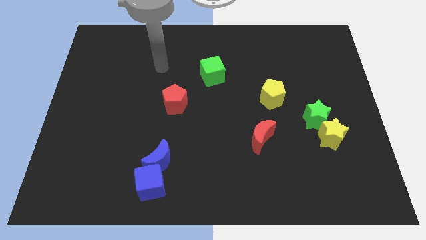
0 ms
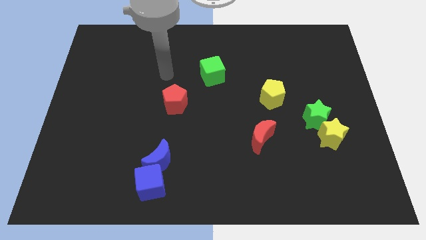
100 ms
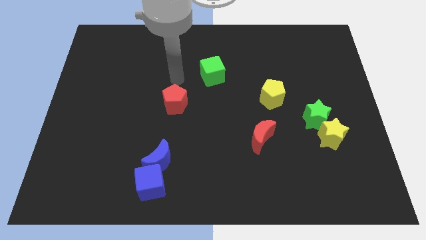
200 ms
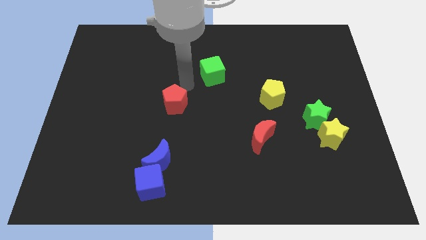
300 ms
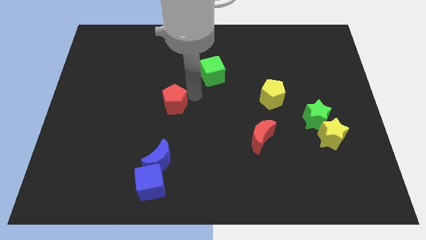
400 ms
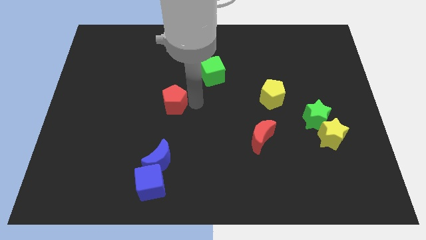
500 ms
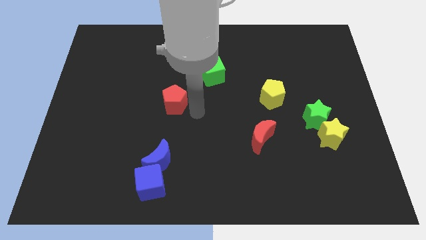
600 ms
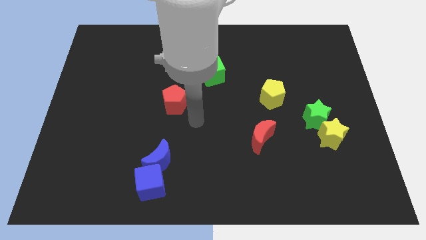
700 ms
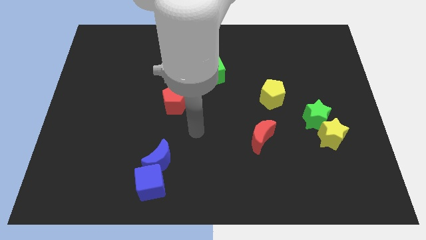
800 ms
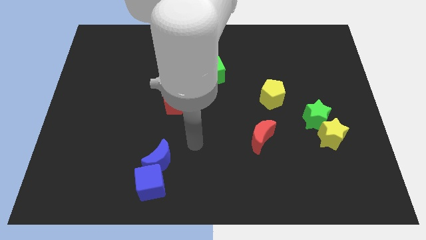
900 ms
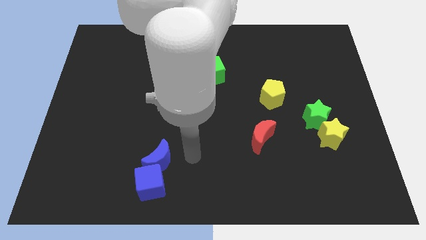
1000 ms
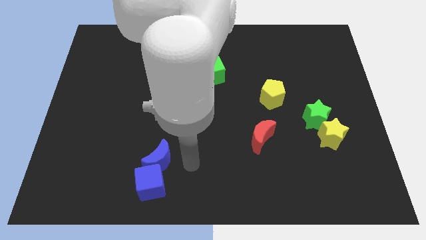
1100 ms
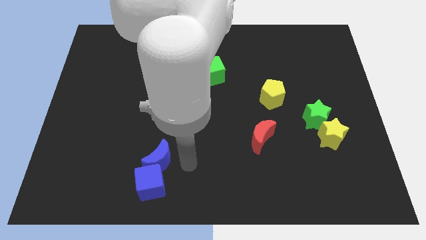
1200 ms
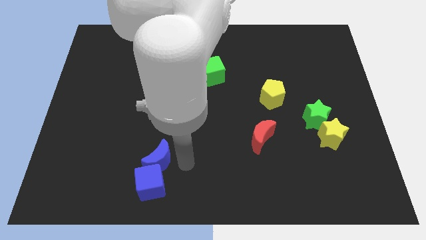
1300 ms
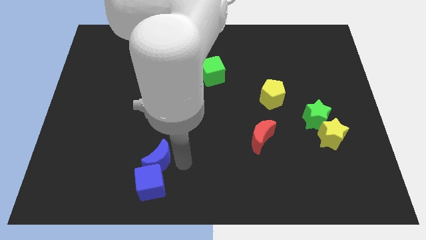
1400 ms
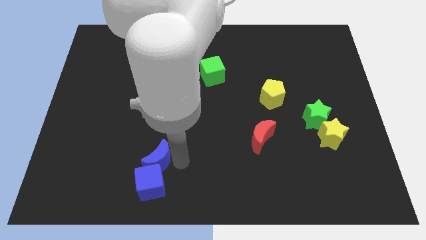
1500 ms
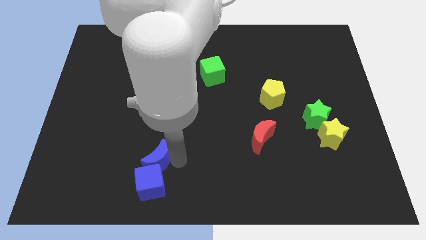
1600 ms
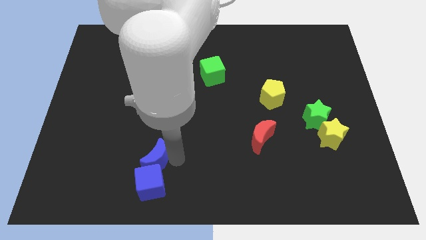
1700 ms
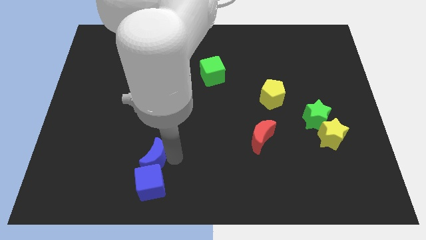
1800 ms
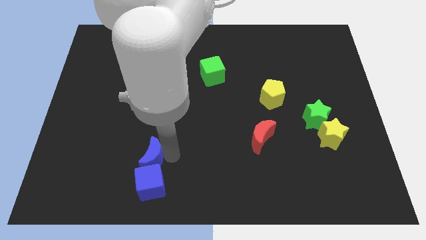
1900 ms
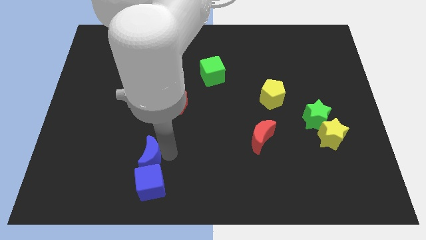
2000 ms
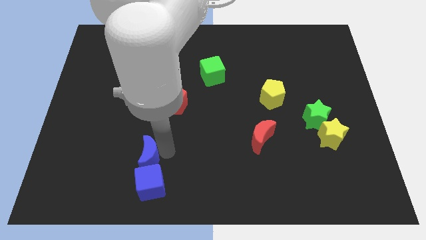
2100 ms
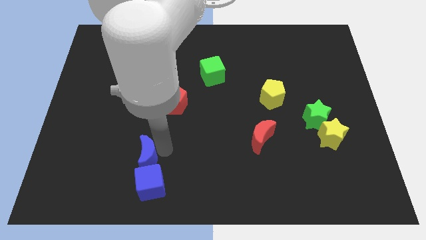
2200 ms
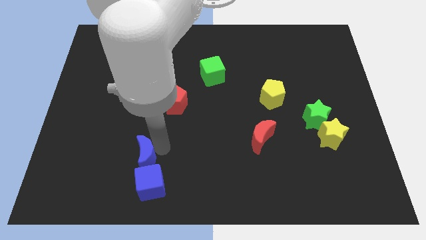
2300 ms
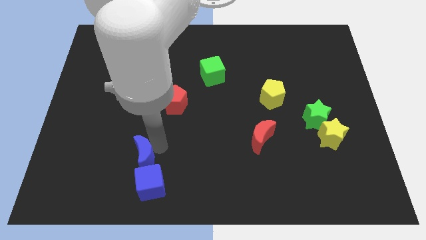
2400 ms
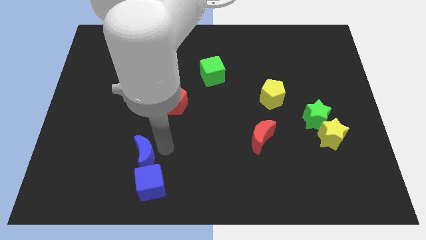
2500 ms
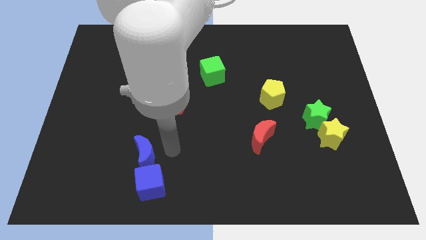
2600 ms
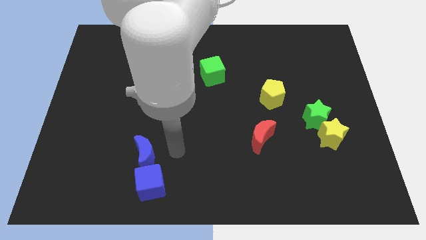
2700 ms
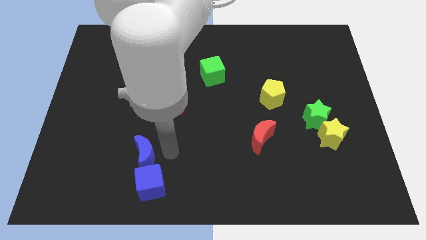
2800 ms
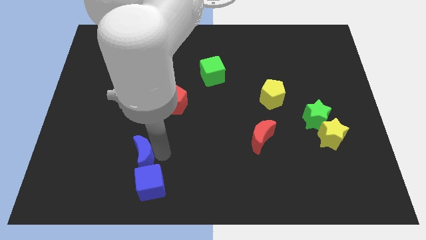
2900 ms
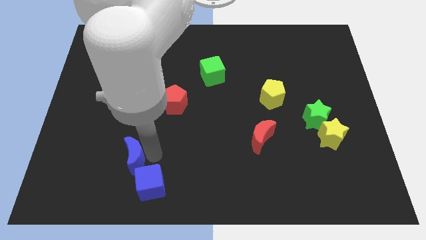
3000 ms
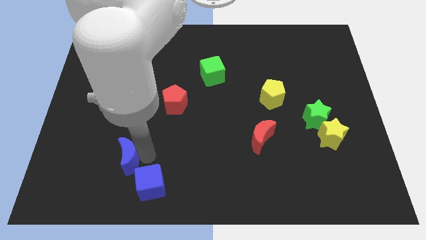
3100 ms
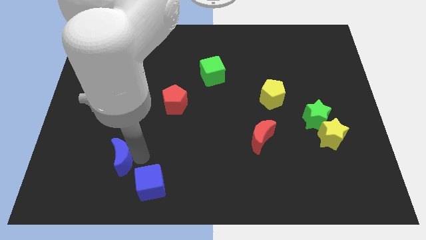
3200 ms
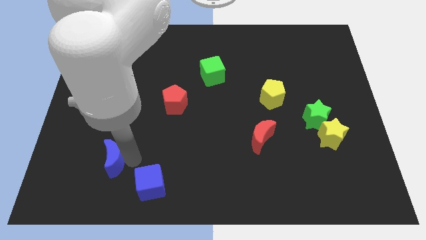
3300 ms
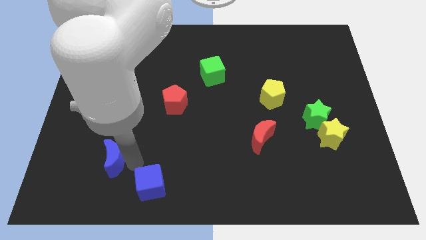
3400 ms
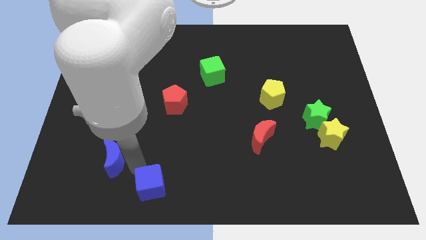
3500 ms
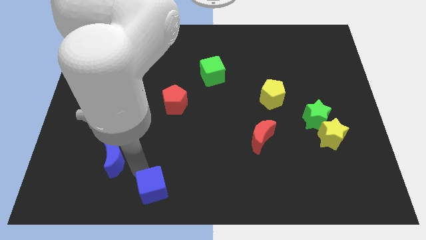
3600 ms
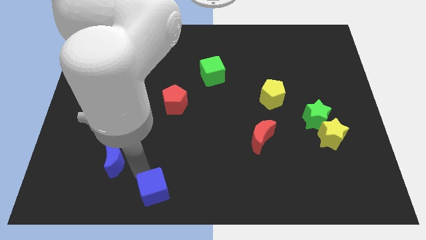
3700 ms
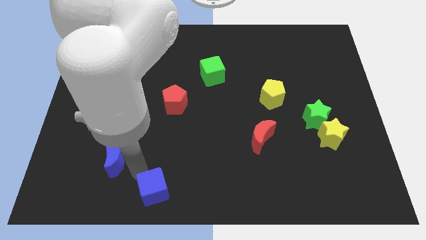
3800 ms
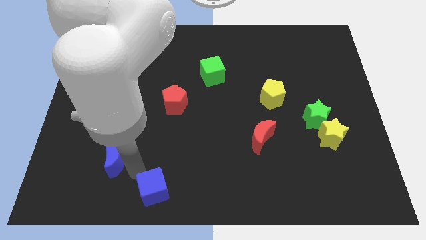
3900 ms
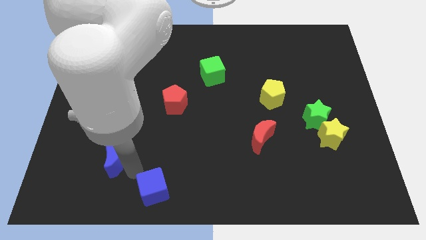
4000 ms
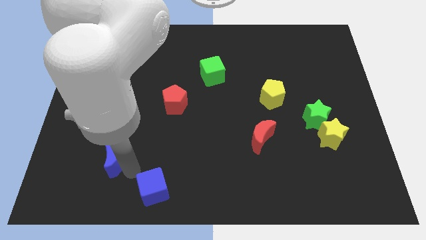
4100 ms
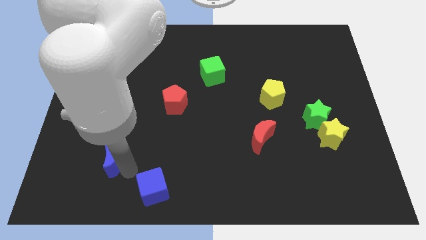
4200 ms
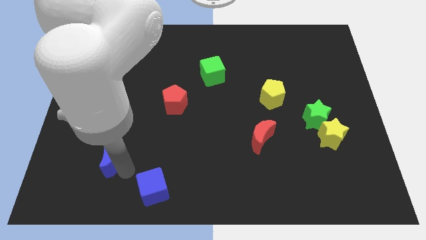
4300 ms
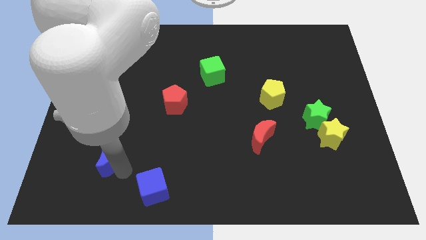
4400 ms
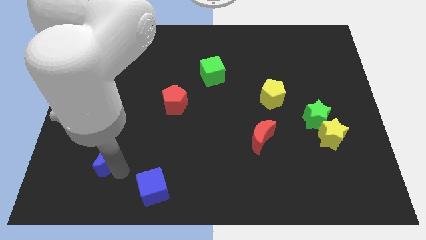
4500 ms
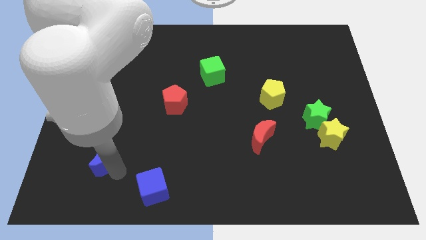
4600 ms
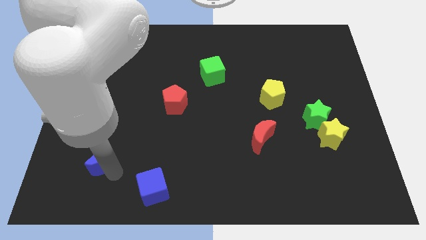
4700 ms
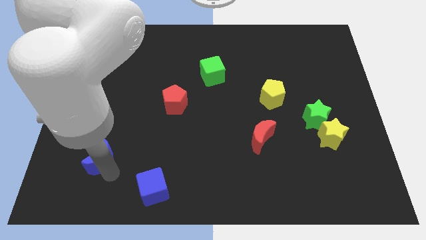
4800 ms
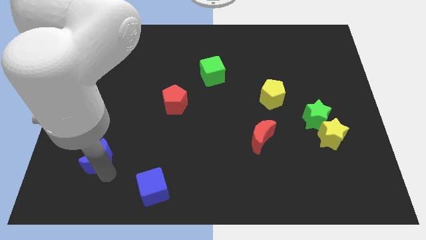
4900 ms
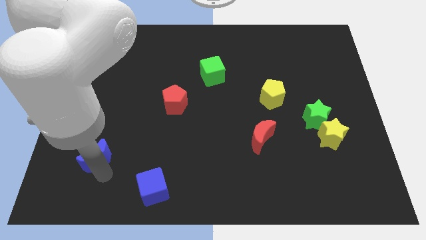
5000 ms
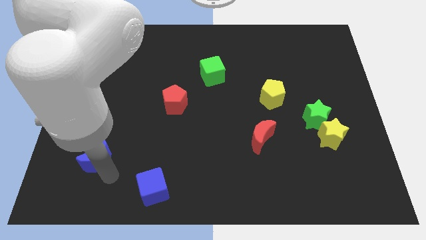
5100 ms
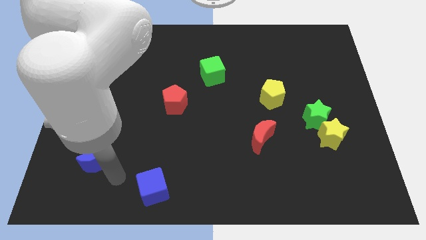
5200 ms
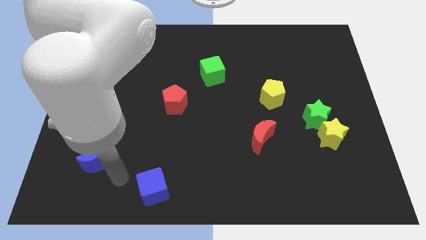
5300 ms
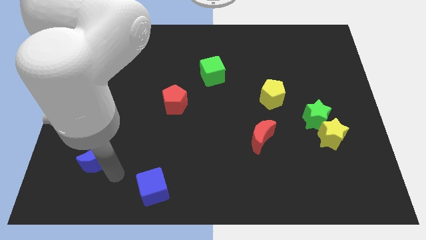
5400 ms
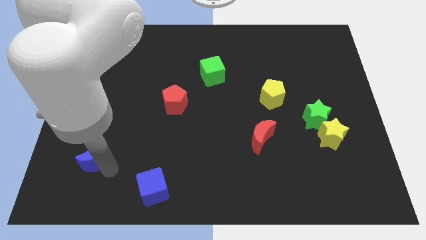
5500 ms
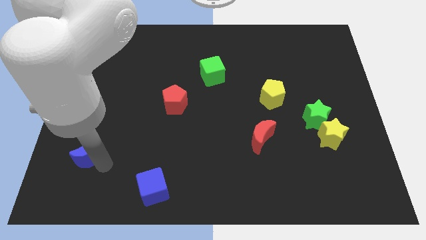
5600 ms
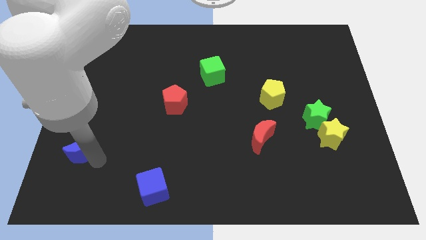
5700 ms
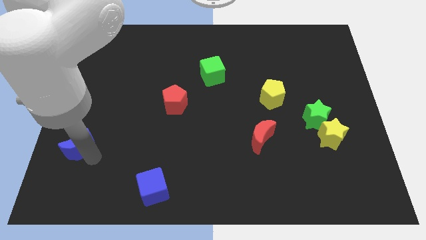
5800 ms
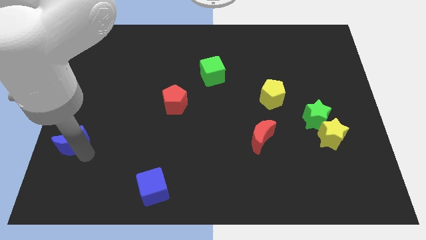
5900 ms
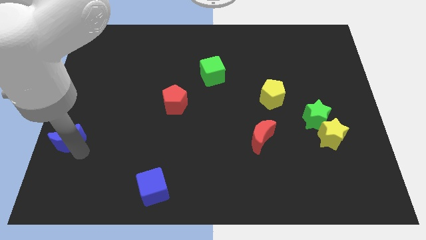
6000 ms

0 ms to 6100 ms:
push the blue moon to the left side

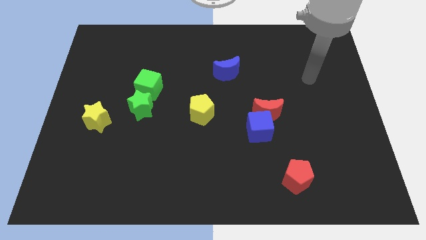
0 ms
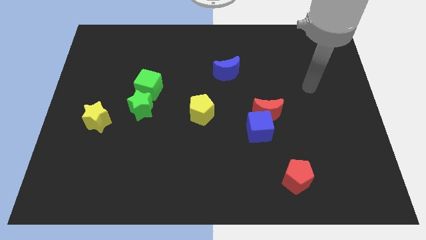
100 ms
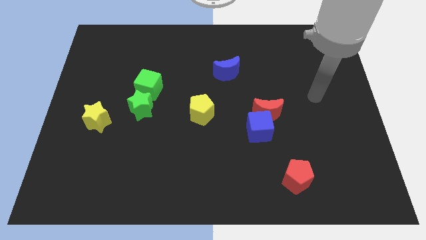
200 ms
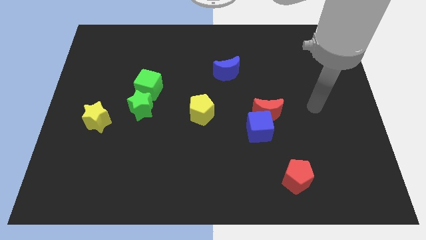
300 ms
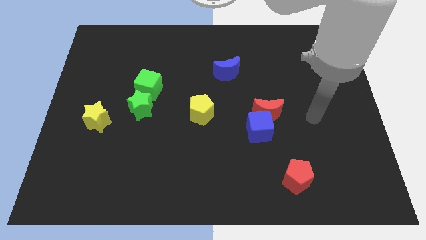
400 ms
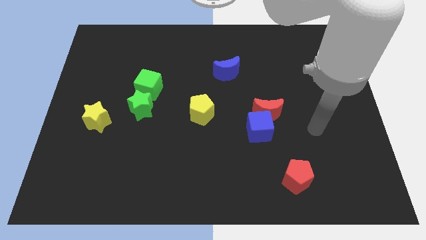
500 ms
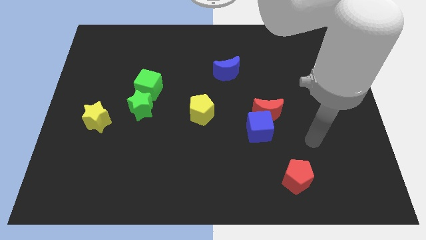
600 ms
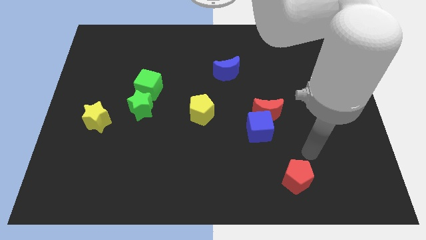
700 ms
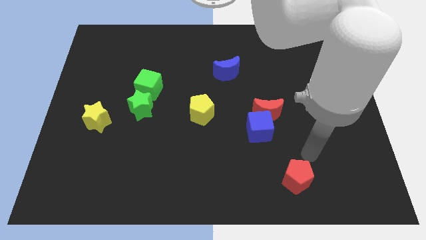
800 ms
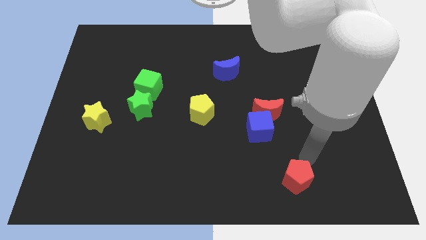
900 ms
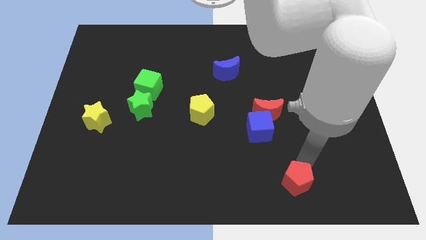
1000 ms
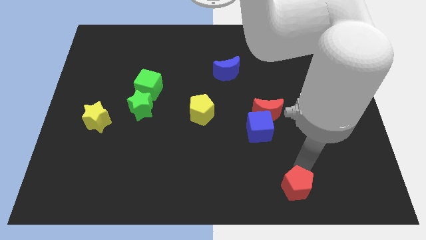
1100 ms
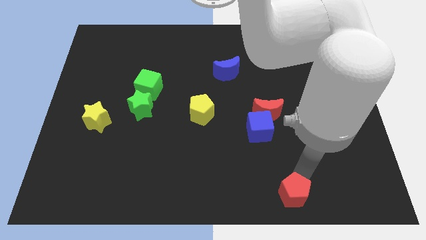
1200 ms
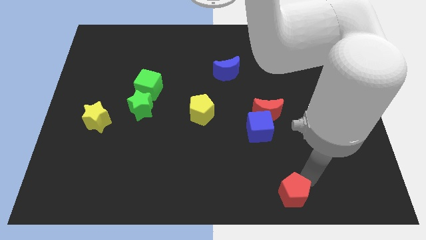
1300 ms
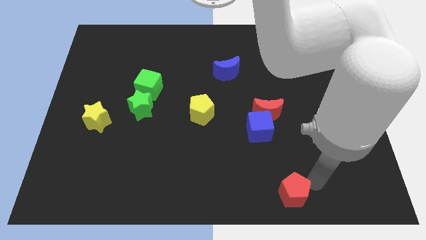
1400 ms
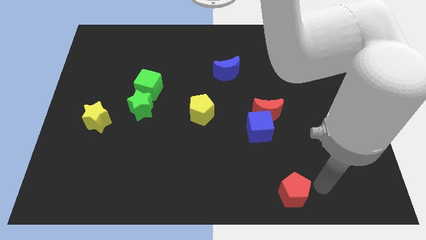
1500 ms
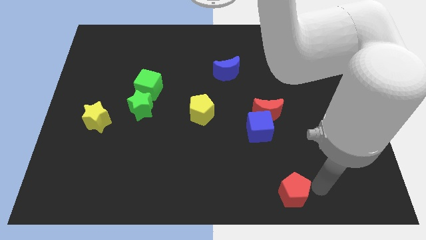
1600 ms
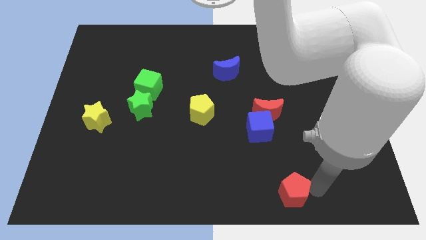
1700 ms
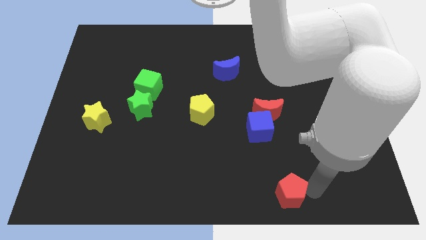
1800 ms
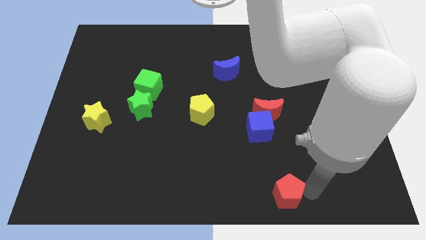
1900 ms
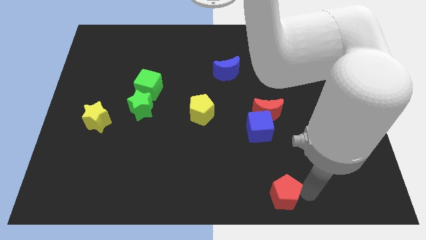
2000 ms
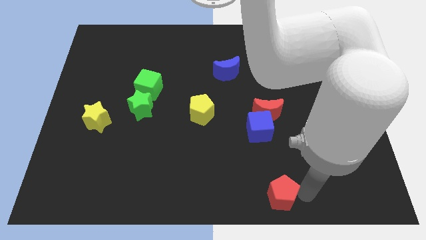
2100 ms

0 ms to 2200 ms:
slide the red pentagon to the bottom side
